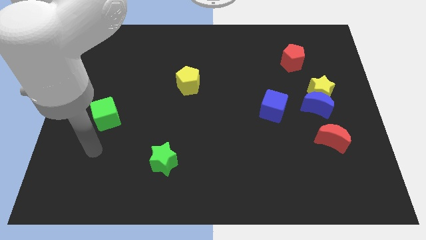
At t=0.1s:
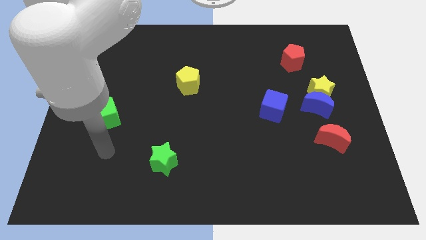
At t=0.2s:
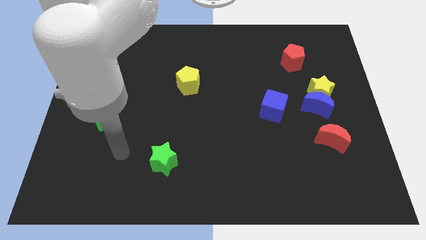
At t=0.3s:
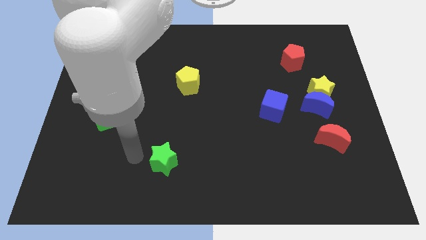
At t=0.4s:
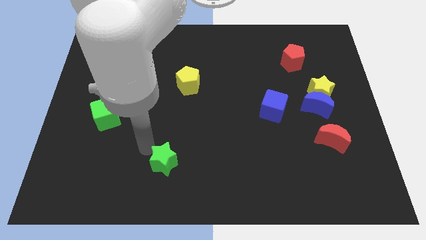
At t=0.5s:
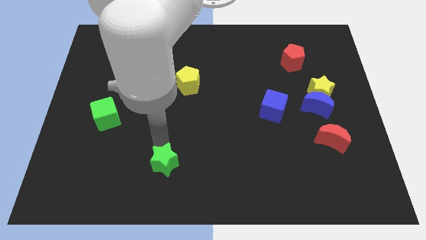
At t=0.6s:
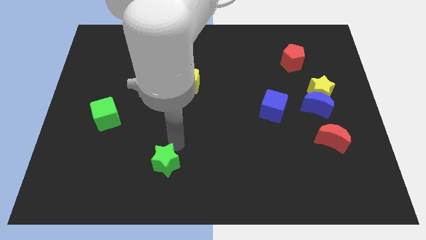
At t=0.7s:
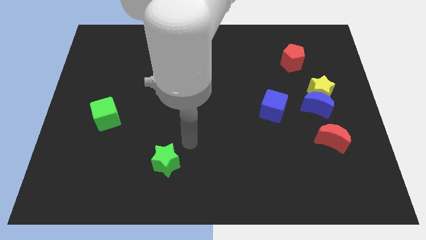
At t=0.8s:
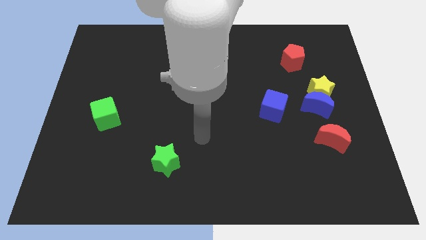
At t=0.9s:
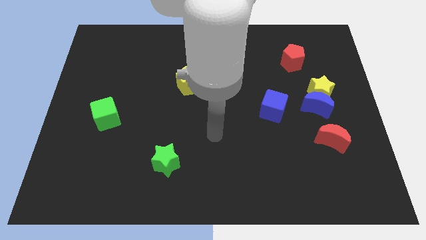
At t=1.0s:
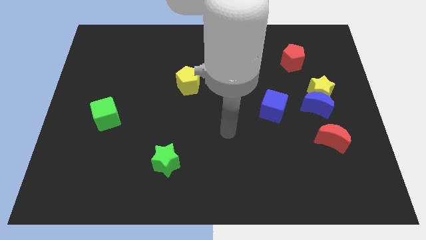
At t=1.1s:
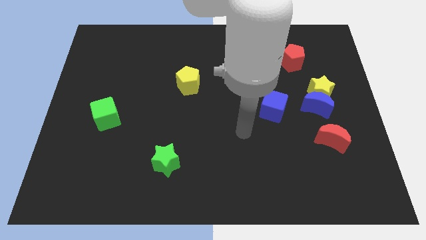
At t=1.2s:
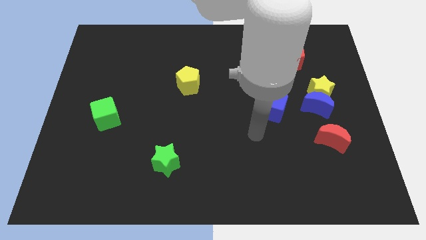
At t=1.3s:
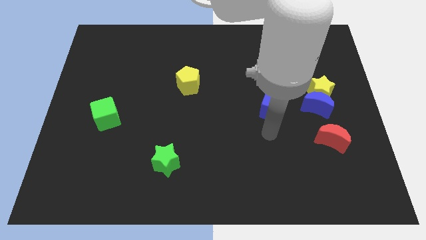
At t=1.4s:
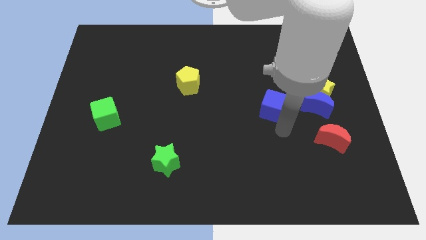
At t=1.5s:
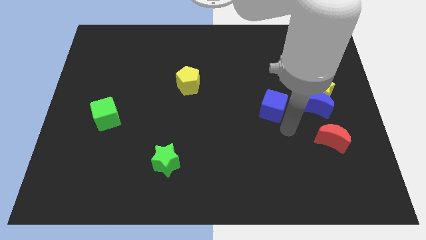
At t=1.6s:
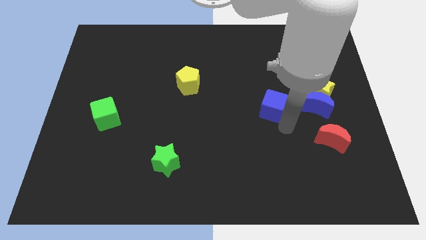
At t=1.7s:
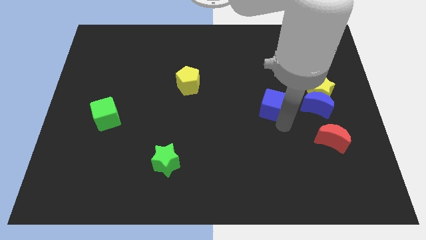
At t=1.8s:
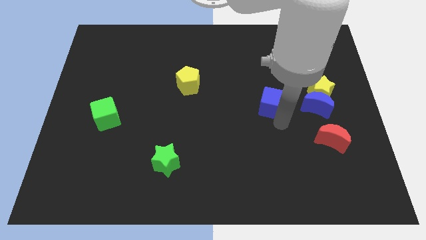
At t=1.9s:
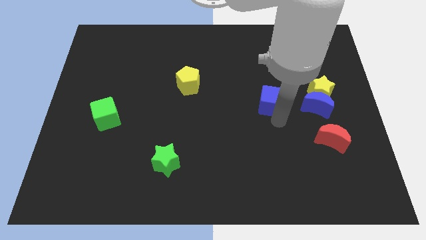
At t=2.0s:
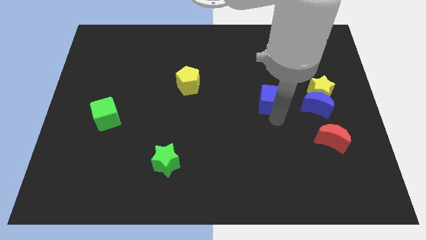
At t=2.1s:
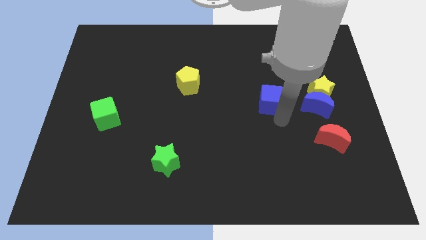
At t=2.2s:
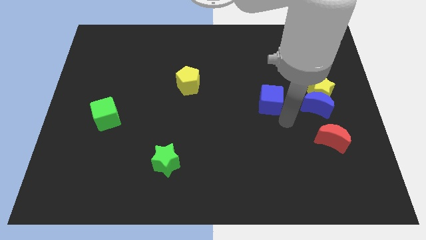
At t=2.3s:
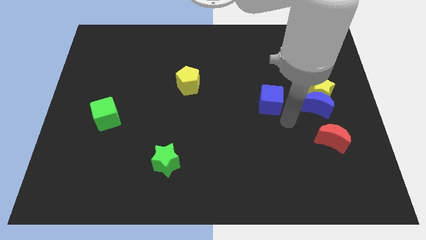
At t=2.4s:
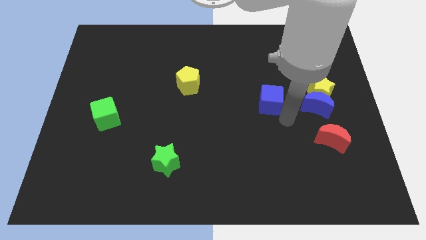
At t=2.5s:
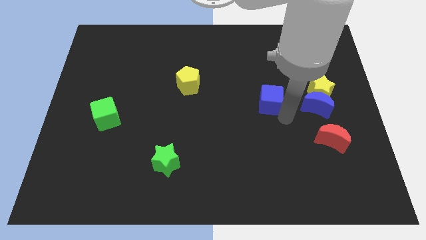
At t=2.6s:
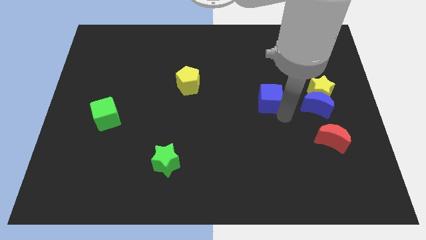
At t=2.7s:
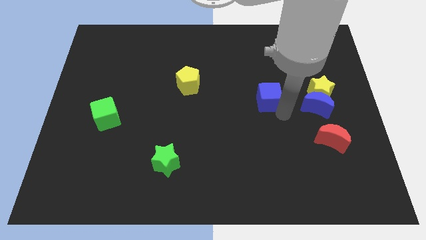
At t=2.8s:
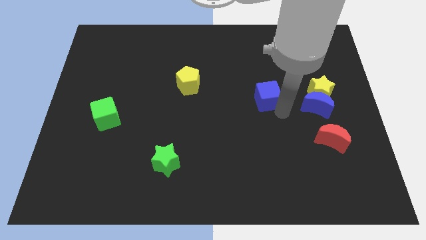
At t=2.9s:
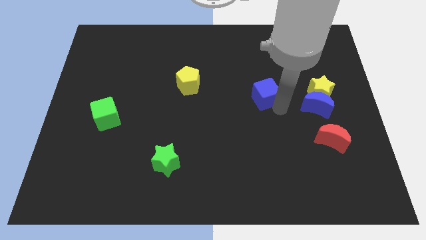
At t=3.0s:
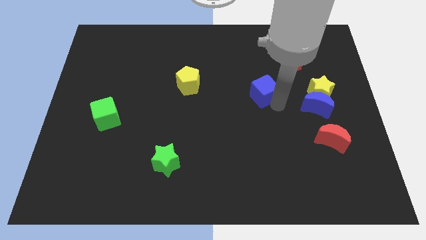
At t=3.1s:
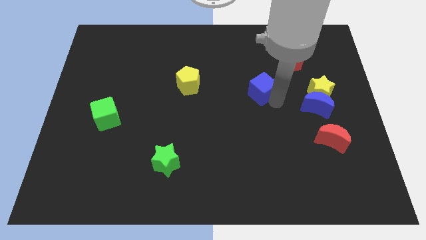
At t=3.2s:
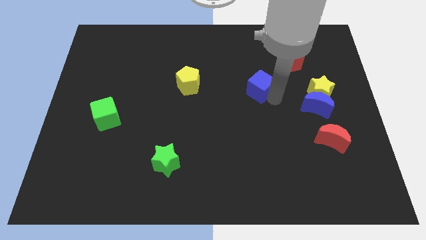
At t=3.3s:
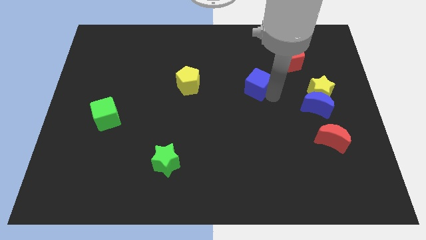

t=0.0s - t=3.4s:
slide the blue cube up and to the left slightly

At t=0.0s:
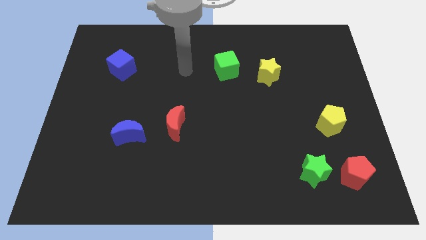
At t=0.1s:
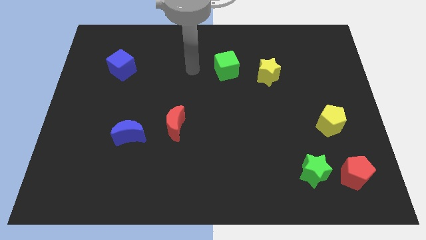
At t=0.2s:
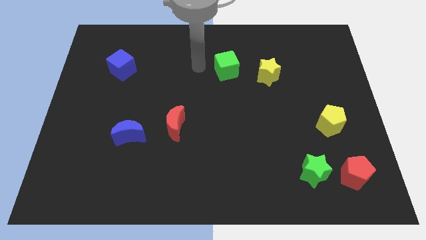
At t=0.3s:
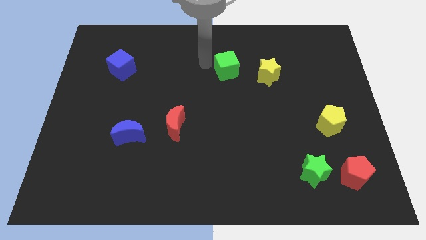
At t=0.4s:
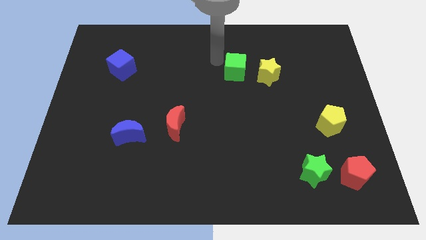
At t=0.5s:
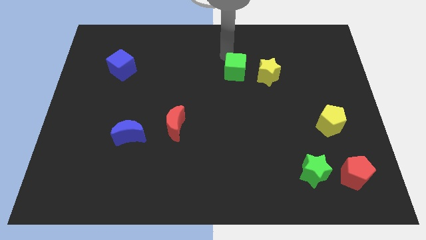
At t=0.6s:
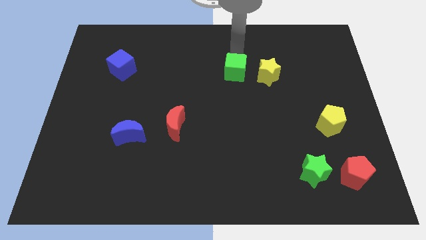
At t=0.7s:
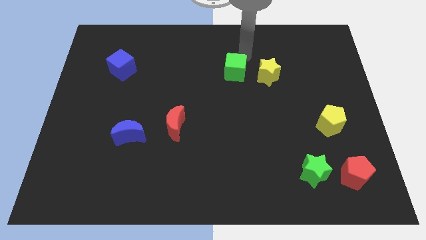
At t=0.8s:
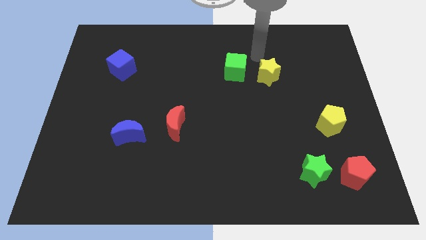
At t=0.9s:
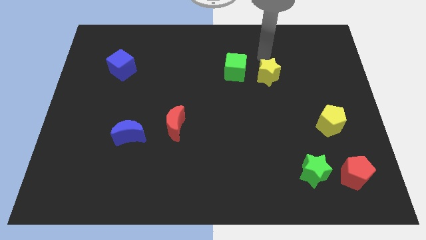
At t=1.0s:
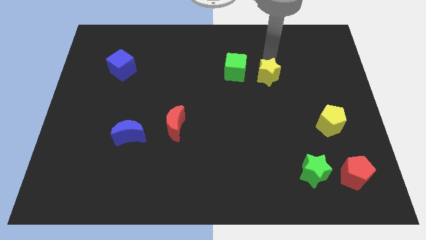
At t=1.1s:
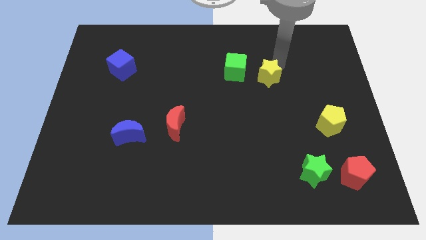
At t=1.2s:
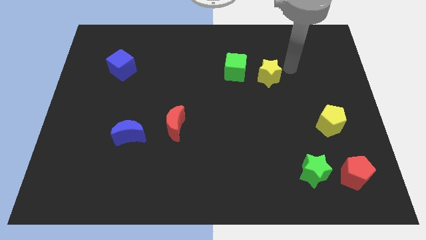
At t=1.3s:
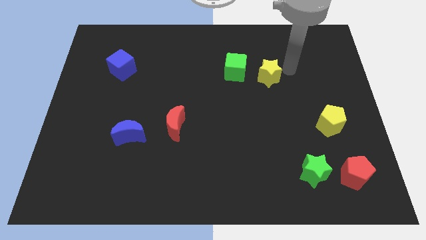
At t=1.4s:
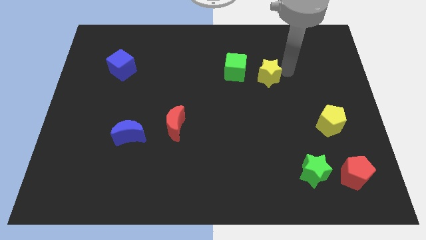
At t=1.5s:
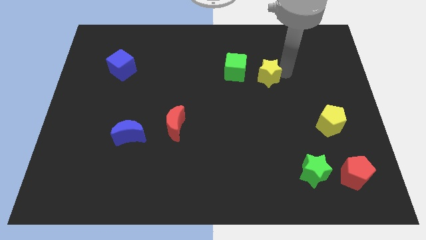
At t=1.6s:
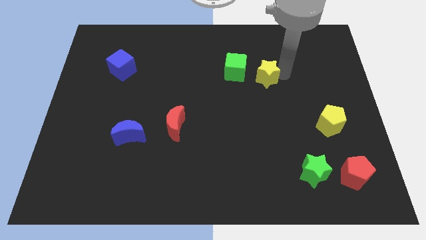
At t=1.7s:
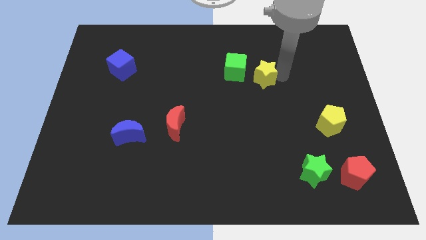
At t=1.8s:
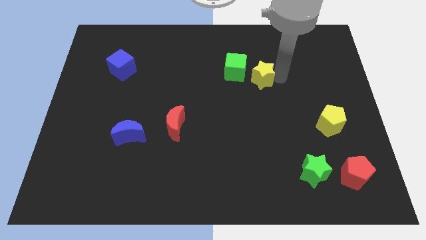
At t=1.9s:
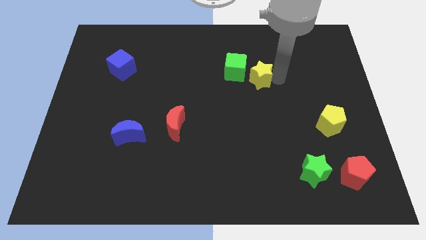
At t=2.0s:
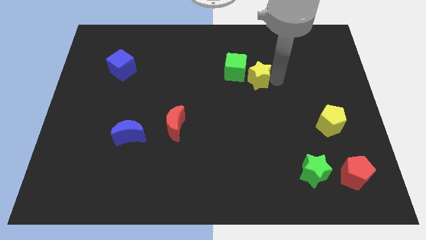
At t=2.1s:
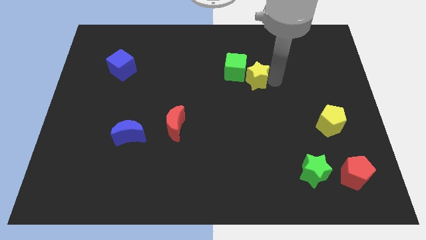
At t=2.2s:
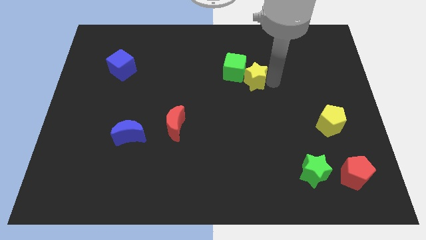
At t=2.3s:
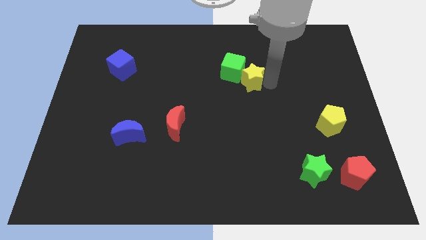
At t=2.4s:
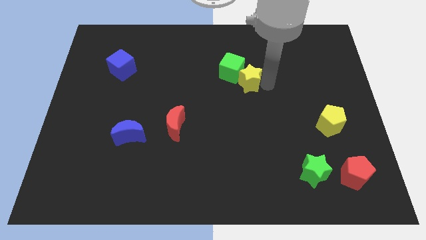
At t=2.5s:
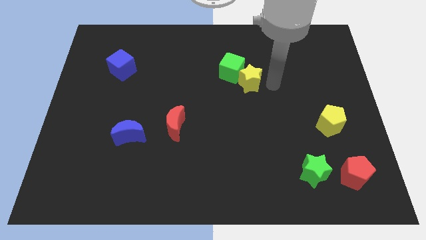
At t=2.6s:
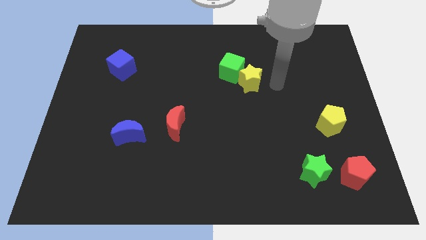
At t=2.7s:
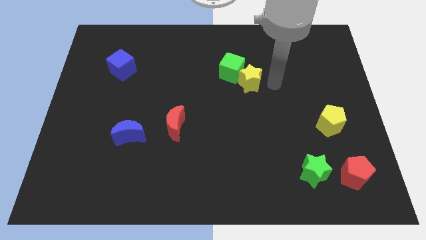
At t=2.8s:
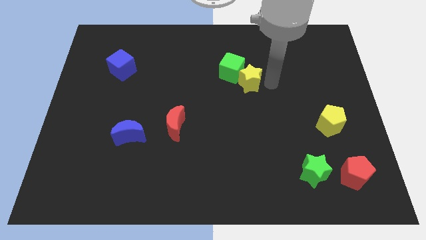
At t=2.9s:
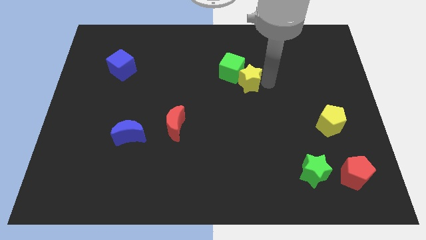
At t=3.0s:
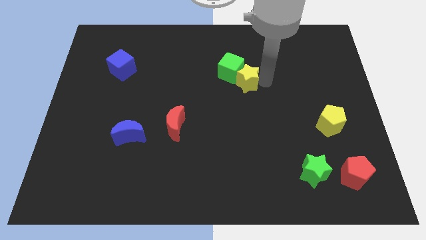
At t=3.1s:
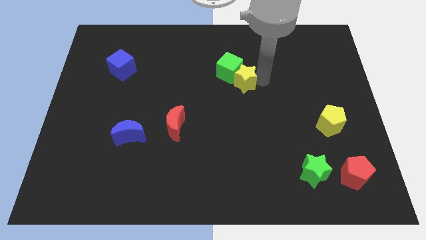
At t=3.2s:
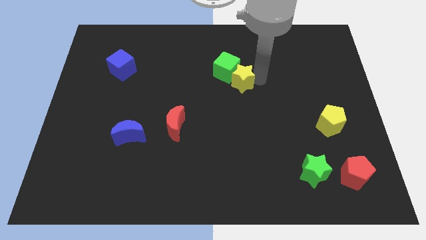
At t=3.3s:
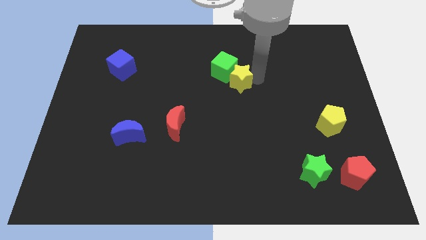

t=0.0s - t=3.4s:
slide the yellow star left a bit

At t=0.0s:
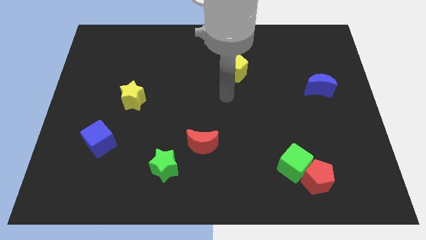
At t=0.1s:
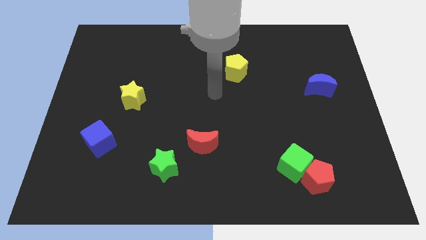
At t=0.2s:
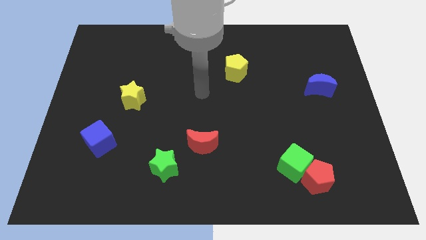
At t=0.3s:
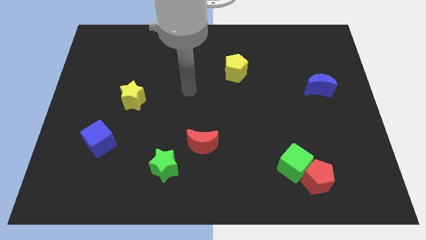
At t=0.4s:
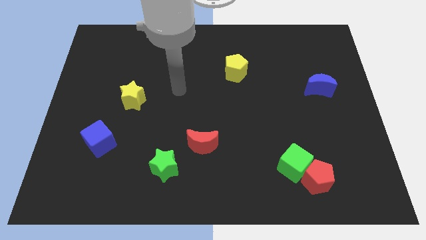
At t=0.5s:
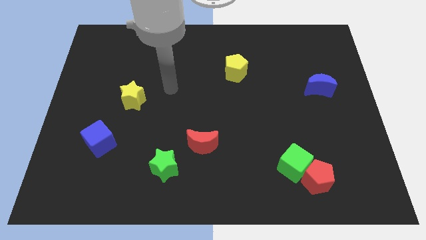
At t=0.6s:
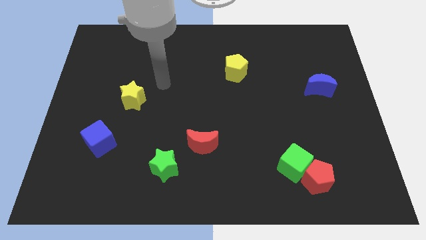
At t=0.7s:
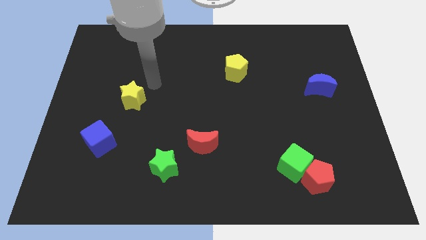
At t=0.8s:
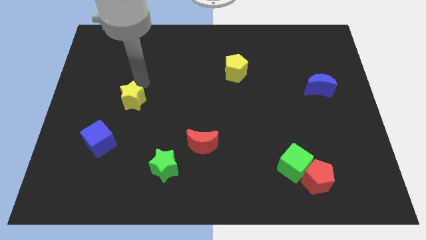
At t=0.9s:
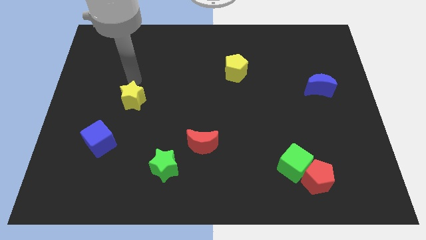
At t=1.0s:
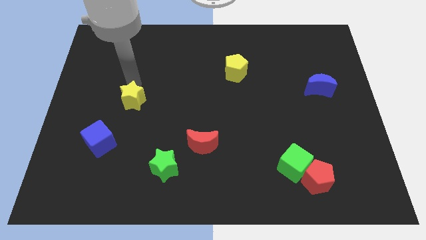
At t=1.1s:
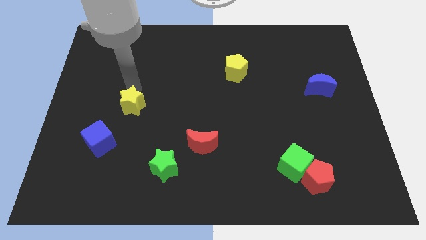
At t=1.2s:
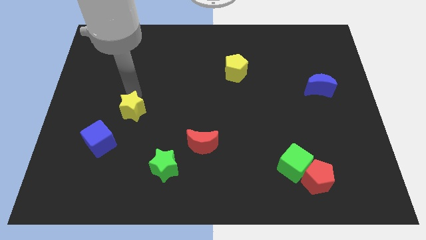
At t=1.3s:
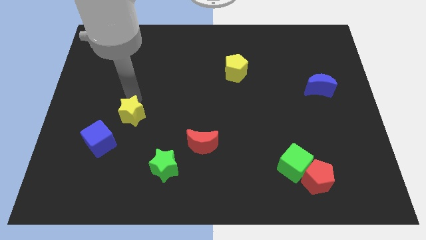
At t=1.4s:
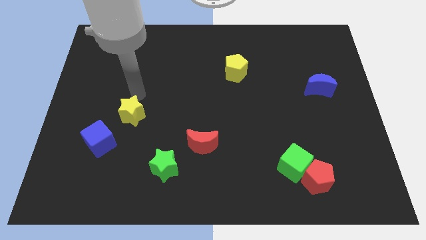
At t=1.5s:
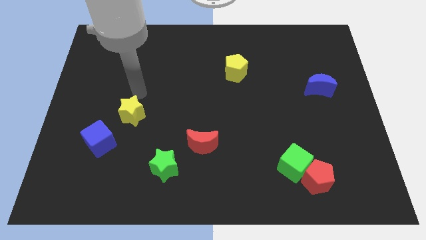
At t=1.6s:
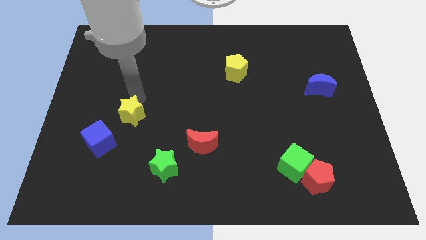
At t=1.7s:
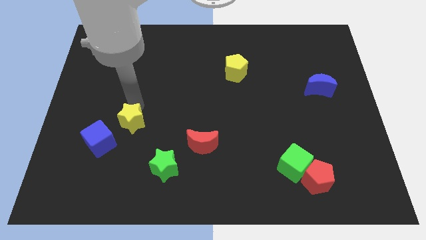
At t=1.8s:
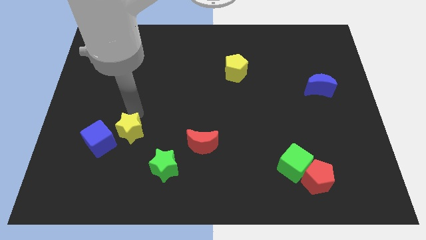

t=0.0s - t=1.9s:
move the yellow star a little down
